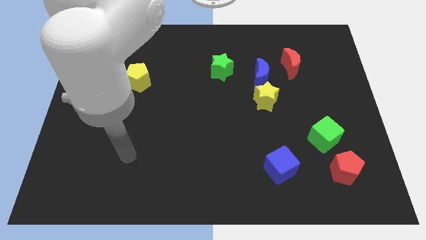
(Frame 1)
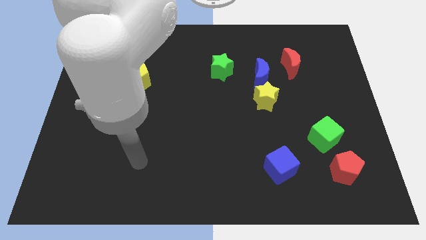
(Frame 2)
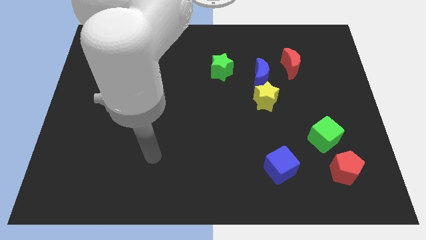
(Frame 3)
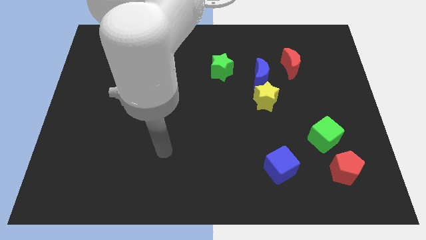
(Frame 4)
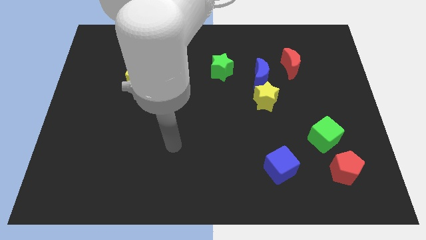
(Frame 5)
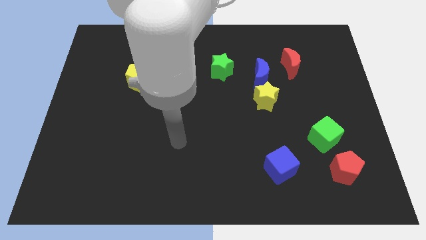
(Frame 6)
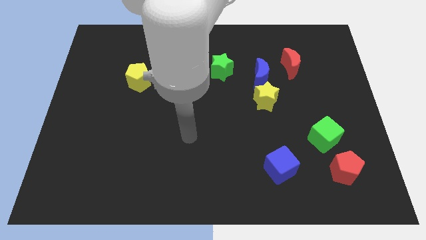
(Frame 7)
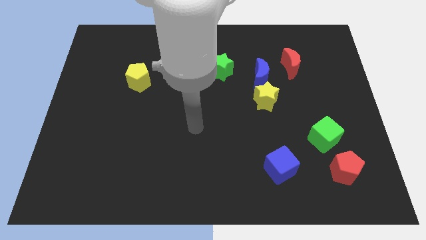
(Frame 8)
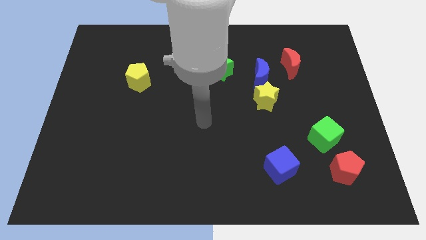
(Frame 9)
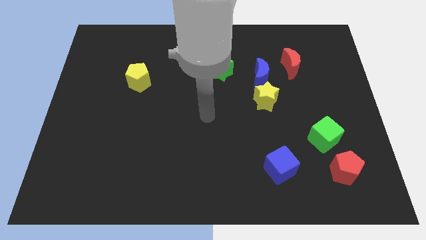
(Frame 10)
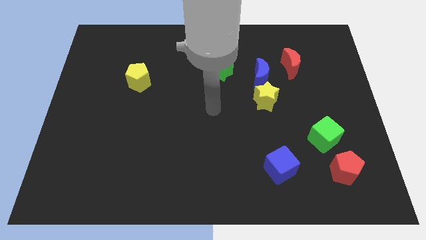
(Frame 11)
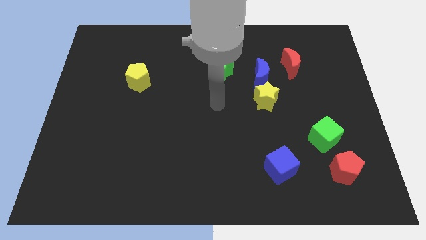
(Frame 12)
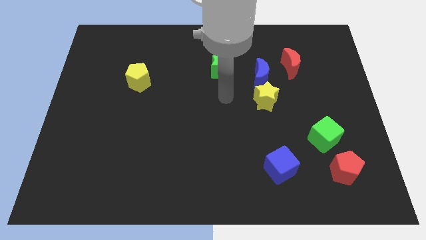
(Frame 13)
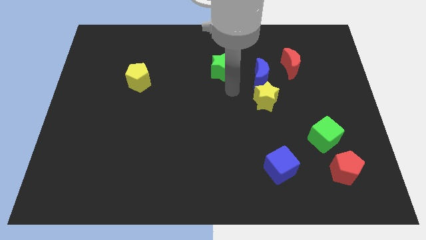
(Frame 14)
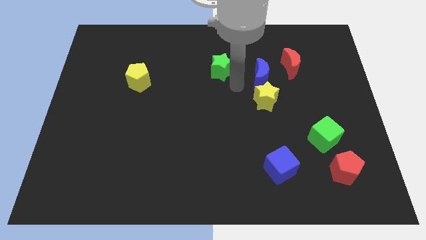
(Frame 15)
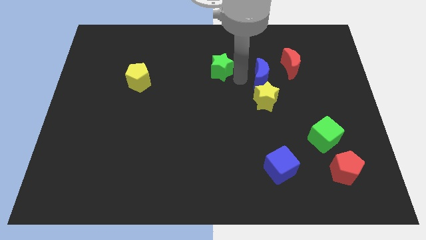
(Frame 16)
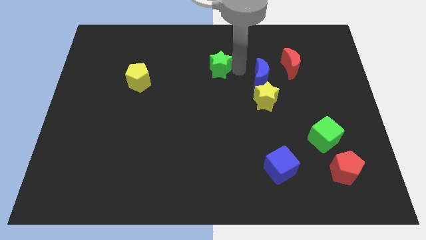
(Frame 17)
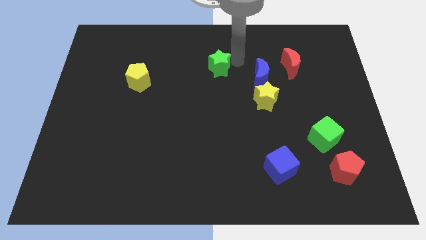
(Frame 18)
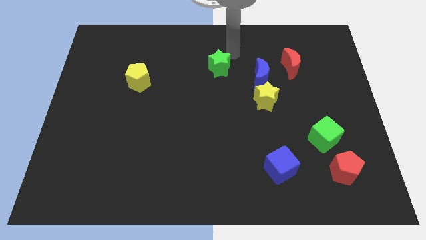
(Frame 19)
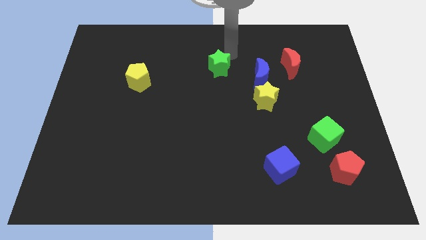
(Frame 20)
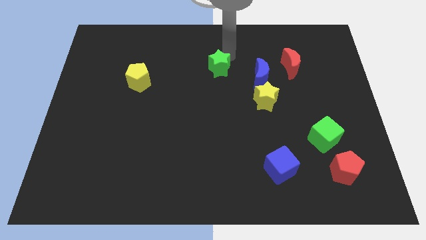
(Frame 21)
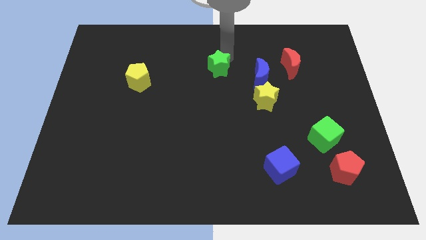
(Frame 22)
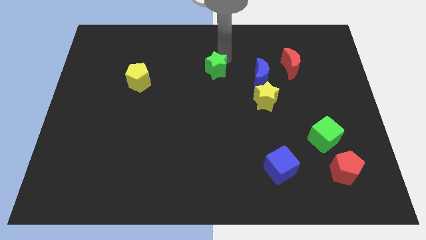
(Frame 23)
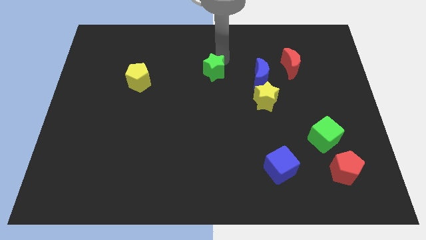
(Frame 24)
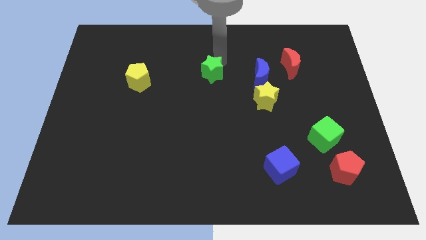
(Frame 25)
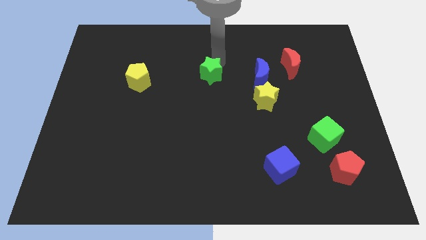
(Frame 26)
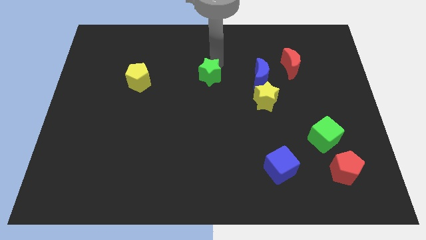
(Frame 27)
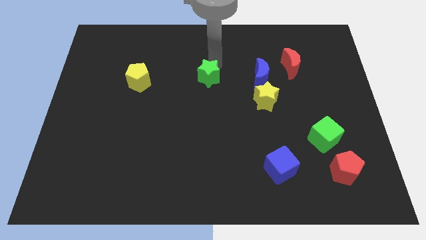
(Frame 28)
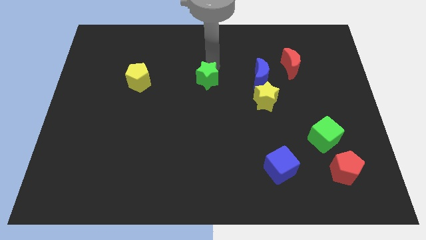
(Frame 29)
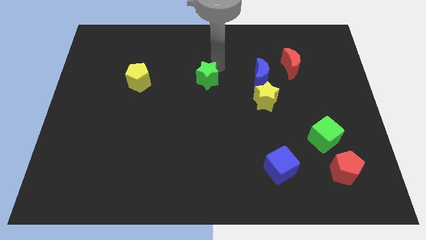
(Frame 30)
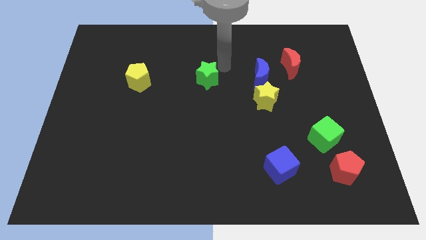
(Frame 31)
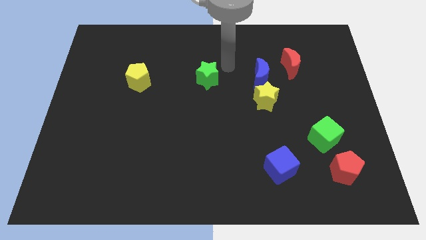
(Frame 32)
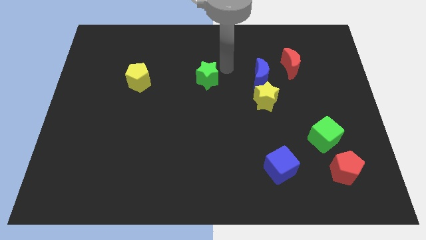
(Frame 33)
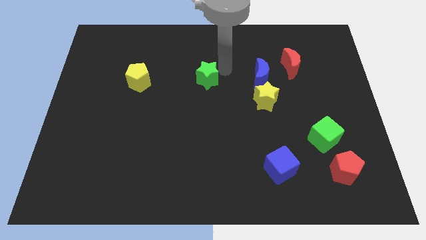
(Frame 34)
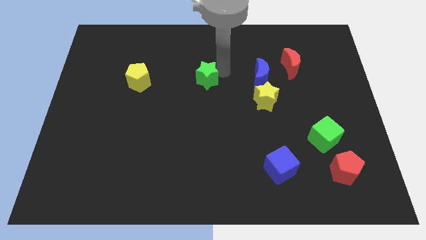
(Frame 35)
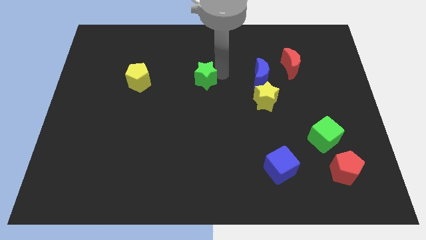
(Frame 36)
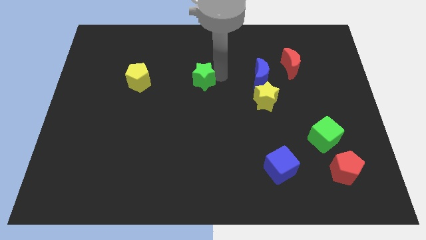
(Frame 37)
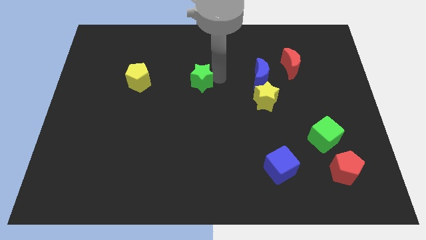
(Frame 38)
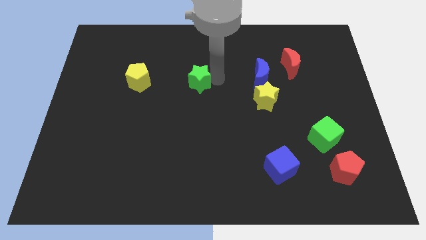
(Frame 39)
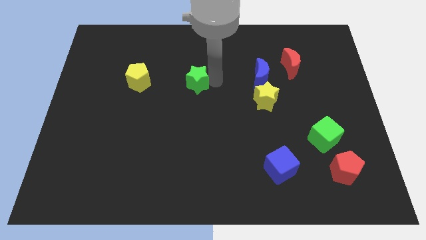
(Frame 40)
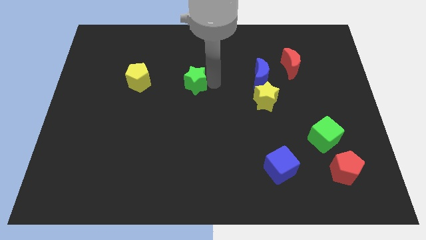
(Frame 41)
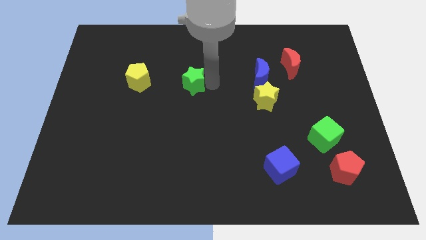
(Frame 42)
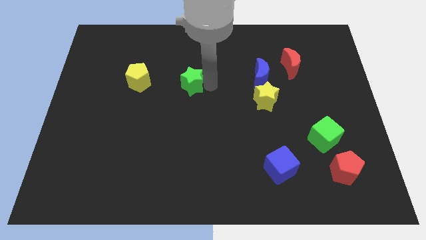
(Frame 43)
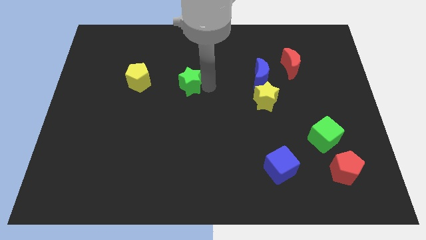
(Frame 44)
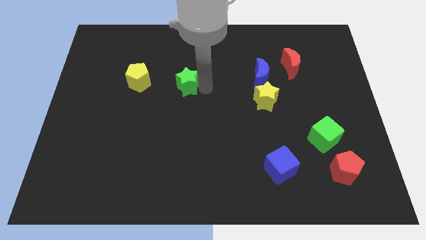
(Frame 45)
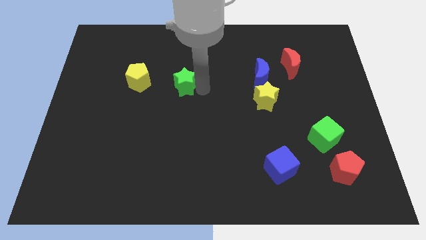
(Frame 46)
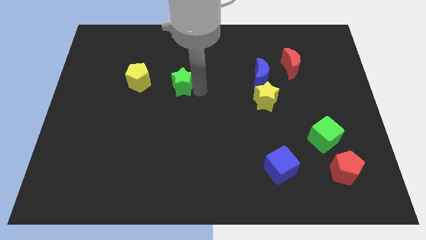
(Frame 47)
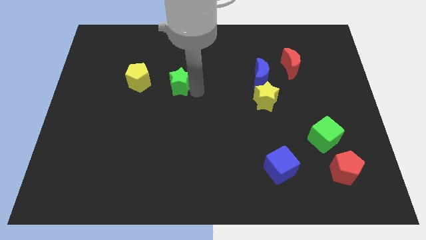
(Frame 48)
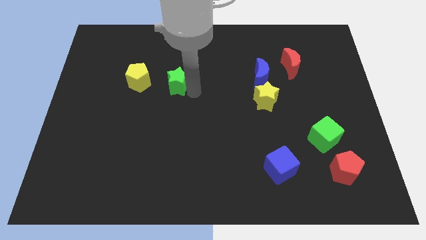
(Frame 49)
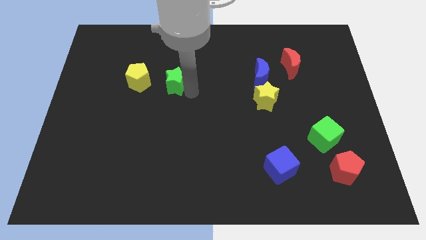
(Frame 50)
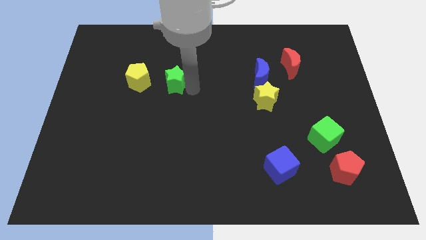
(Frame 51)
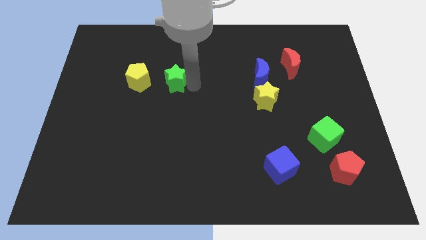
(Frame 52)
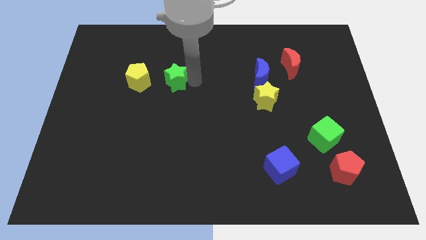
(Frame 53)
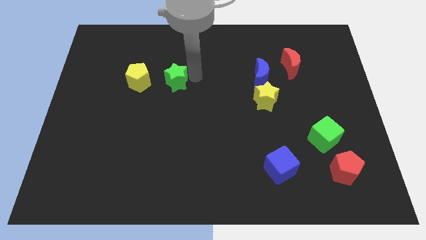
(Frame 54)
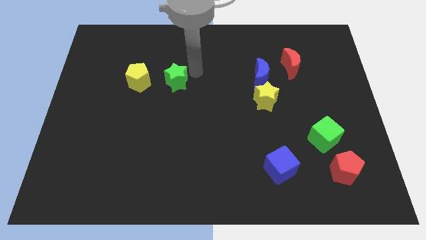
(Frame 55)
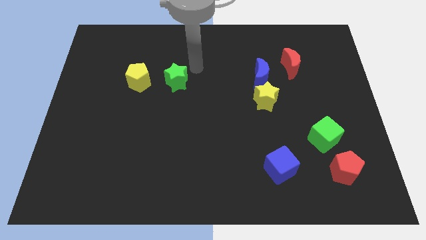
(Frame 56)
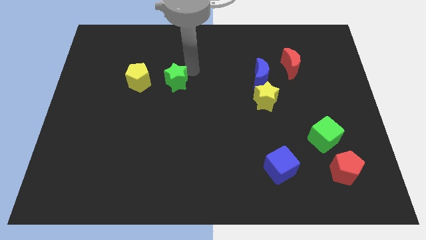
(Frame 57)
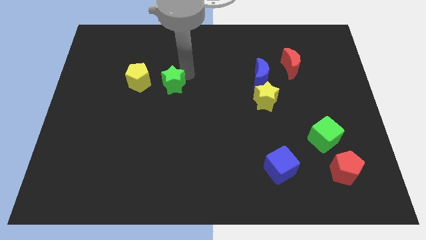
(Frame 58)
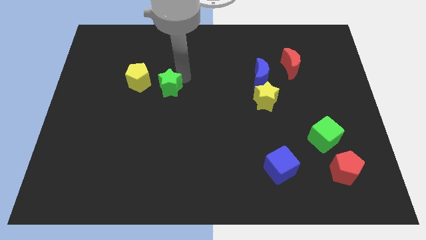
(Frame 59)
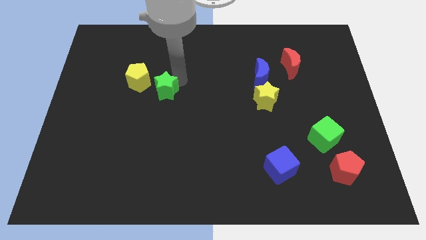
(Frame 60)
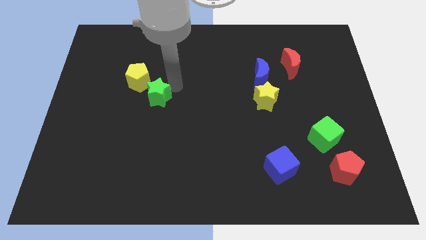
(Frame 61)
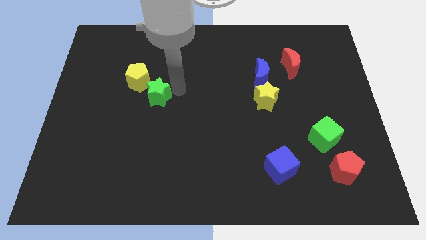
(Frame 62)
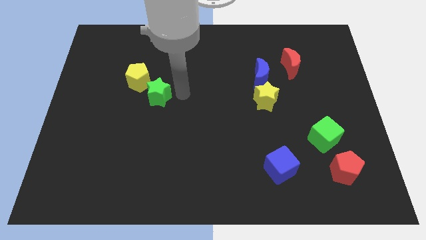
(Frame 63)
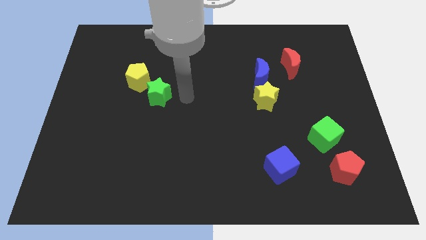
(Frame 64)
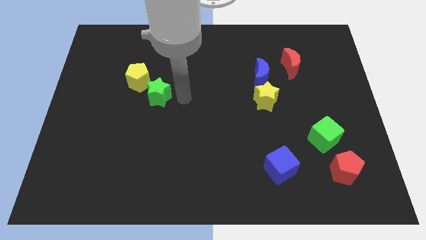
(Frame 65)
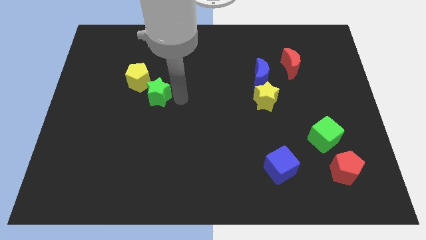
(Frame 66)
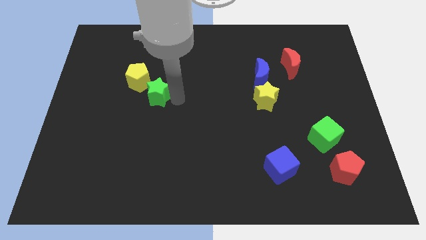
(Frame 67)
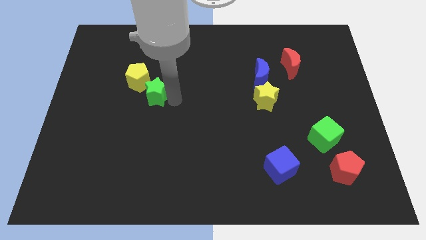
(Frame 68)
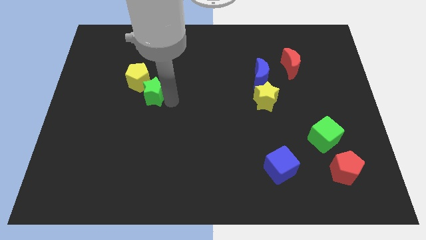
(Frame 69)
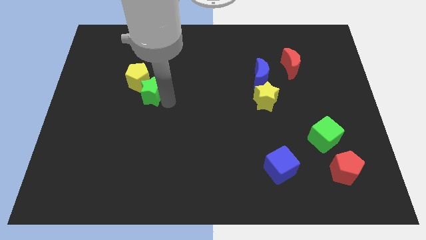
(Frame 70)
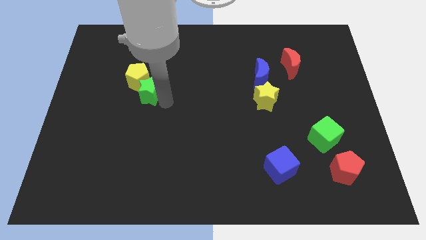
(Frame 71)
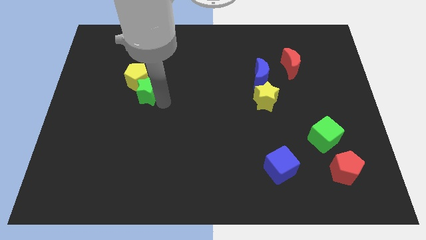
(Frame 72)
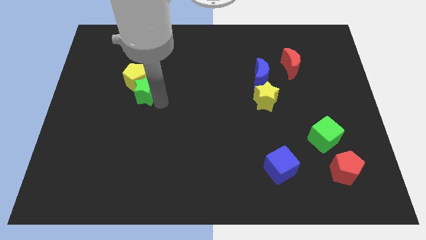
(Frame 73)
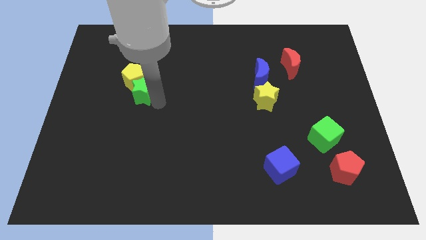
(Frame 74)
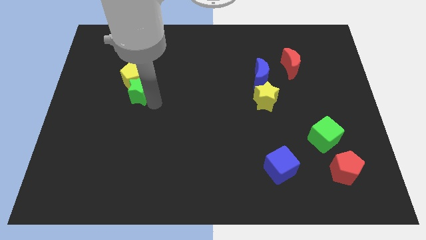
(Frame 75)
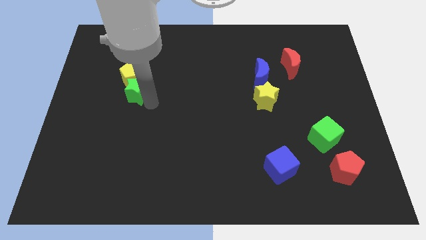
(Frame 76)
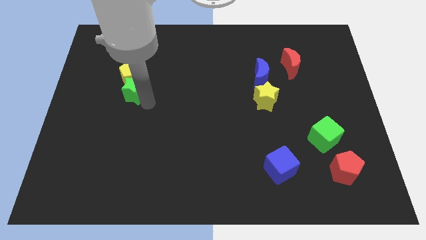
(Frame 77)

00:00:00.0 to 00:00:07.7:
move the green star diagonally down and to the left of the yellow pentagon
